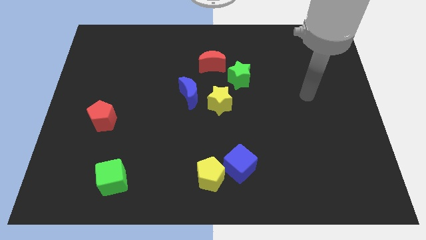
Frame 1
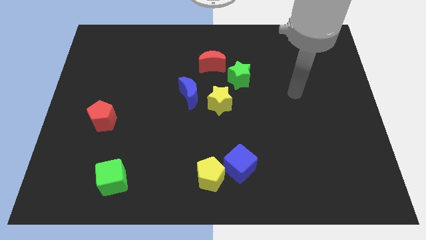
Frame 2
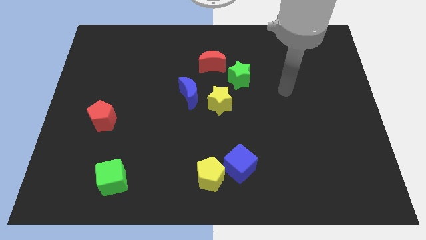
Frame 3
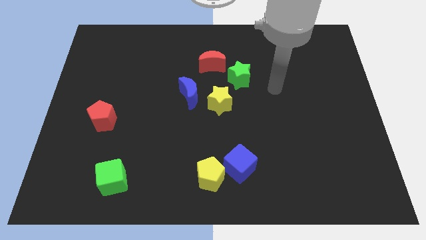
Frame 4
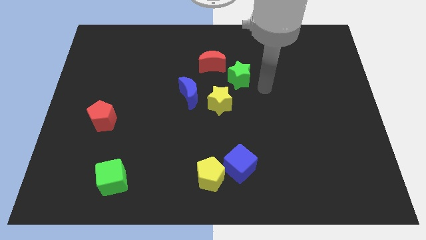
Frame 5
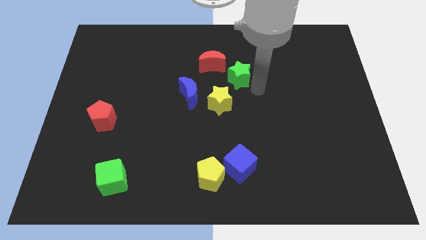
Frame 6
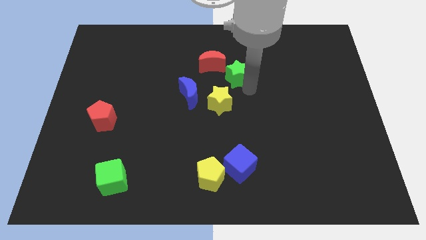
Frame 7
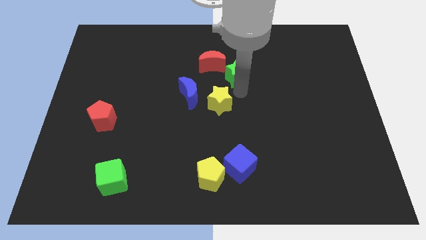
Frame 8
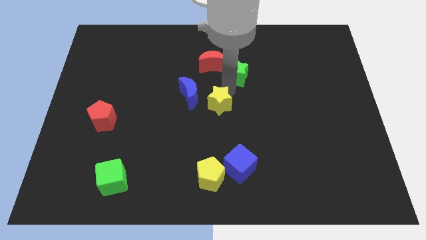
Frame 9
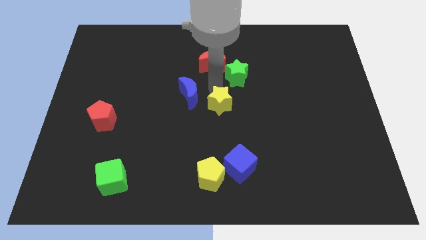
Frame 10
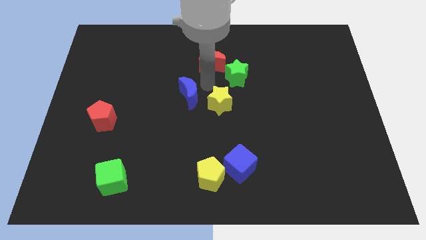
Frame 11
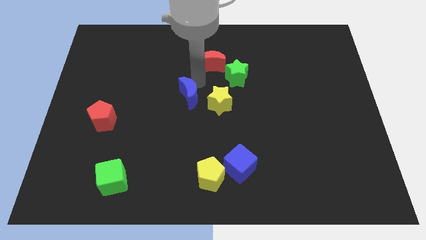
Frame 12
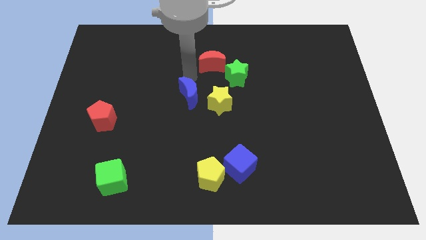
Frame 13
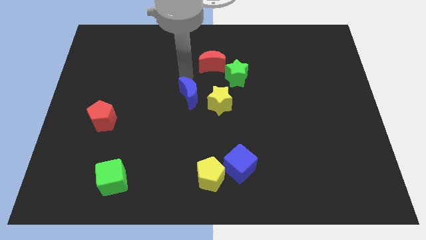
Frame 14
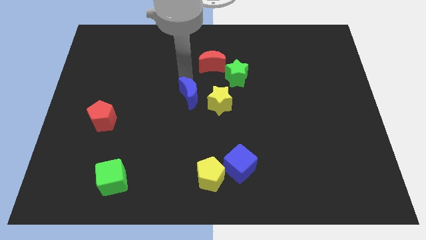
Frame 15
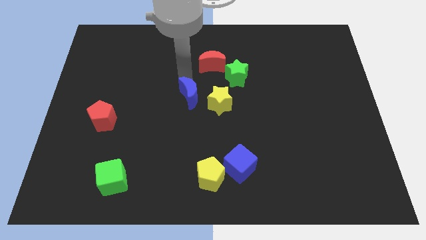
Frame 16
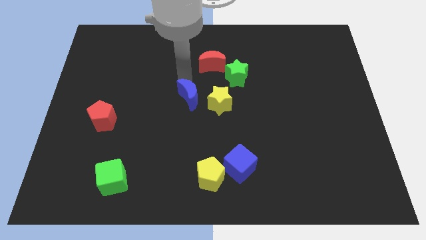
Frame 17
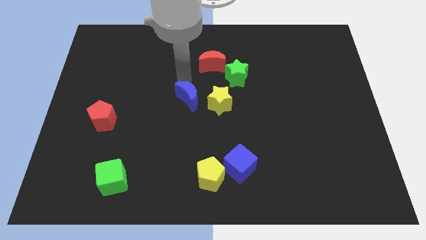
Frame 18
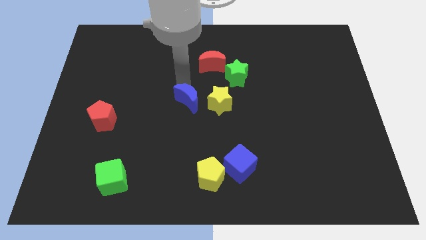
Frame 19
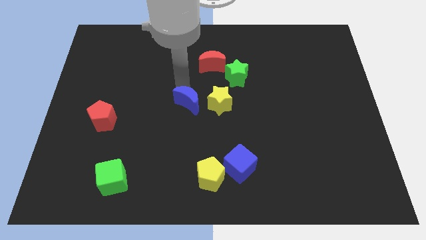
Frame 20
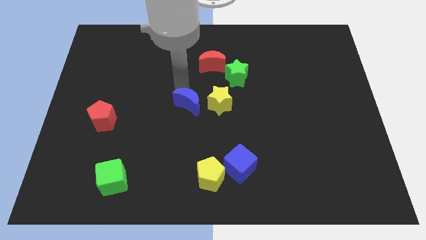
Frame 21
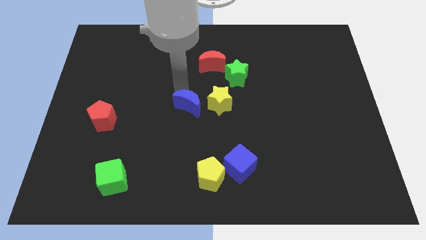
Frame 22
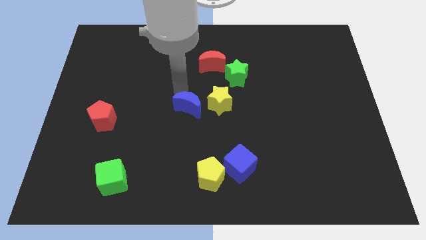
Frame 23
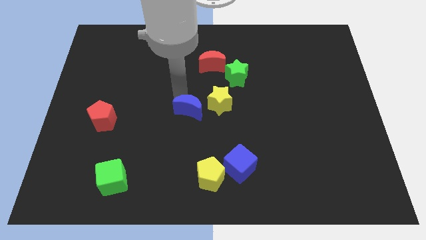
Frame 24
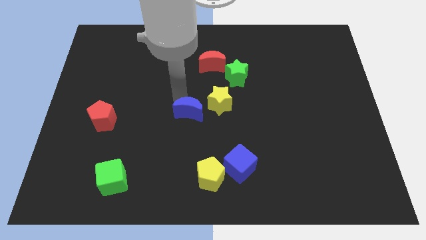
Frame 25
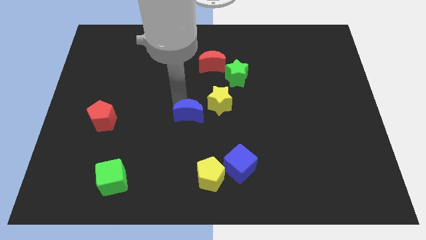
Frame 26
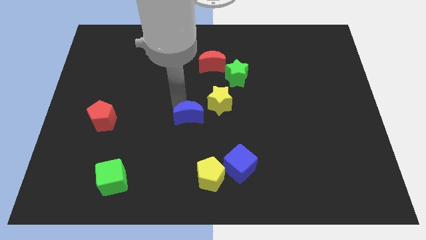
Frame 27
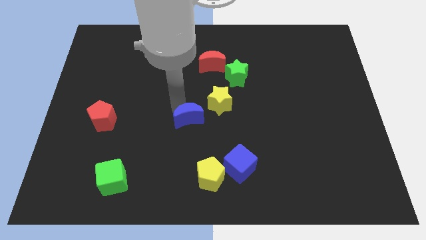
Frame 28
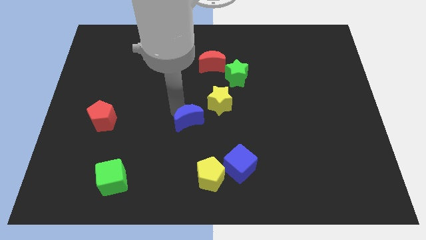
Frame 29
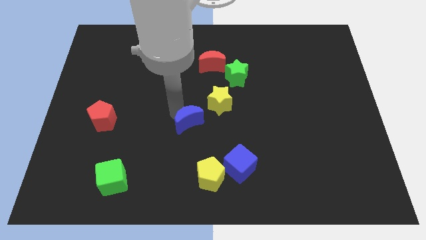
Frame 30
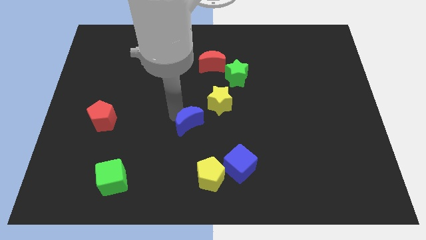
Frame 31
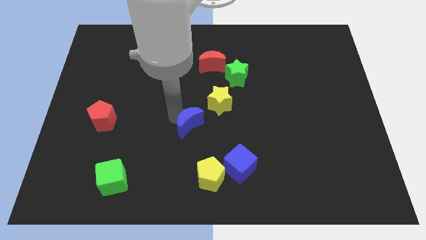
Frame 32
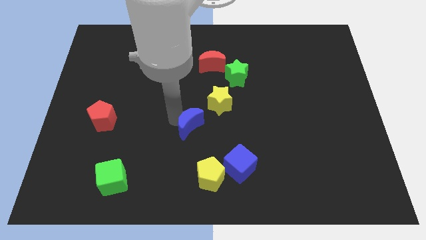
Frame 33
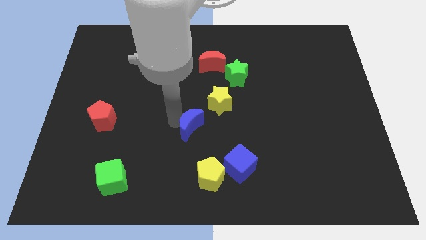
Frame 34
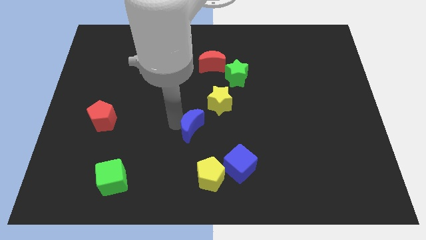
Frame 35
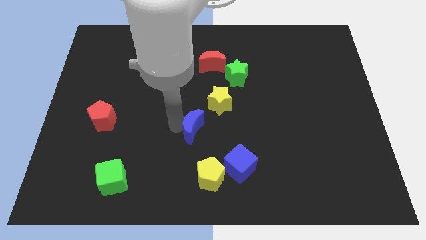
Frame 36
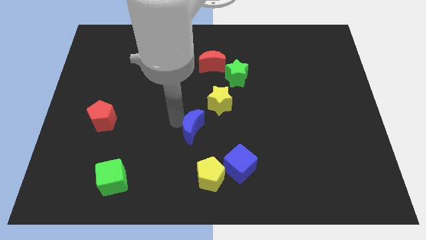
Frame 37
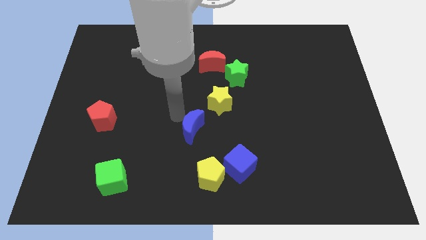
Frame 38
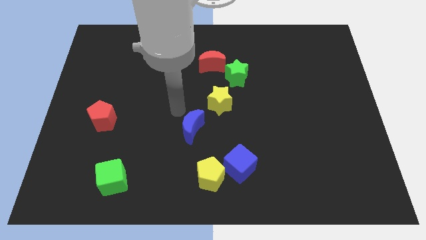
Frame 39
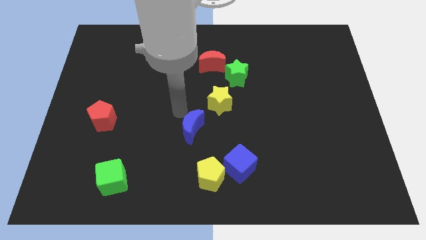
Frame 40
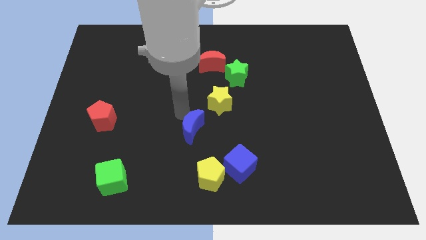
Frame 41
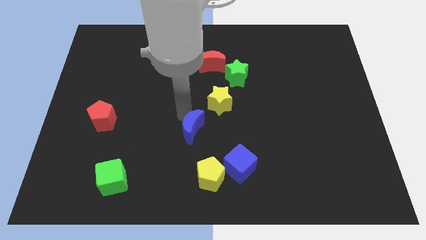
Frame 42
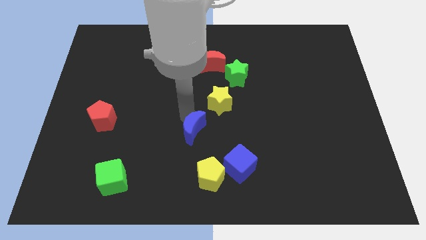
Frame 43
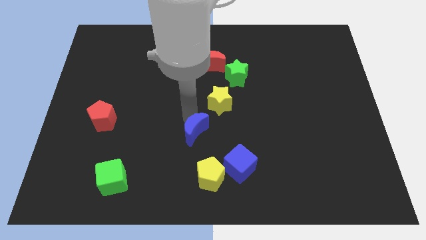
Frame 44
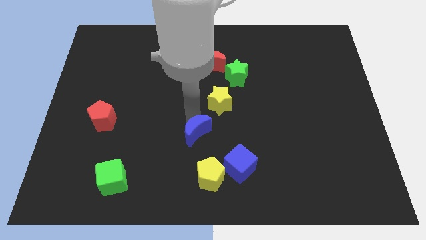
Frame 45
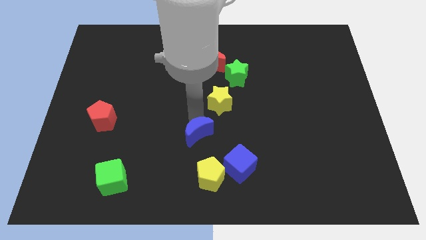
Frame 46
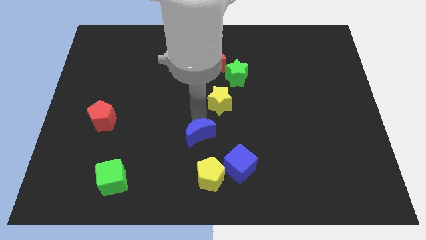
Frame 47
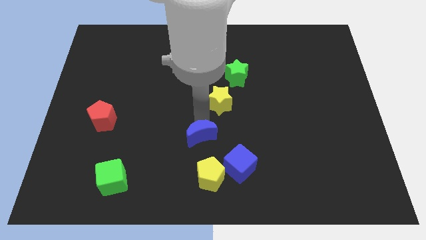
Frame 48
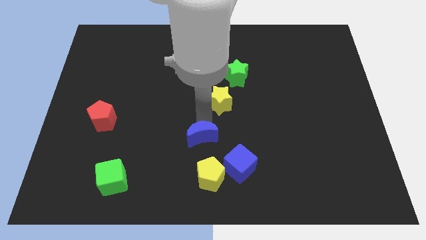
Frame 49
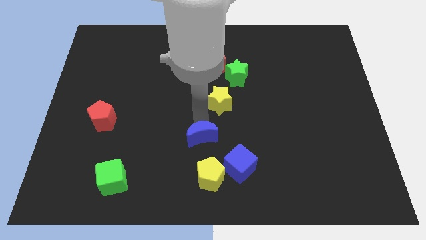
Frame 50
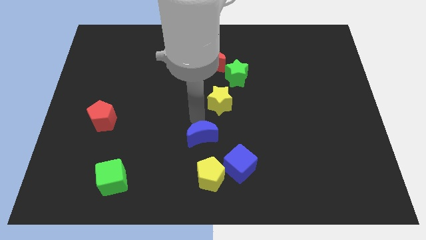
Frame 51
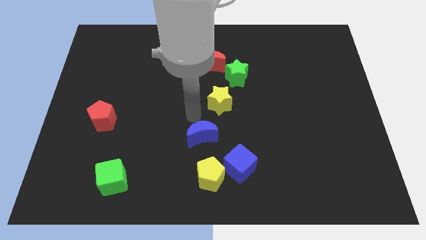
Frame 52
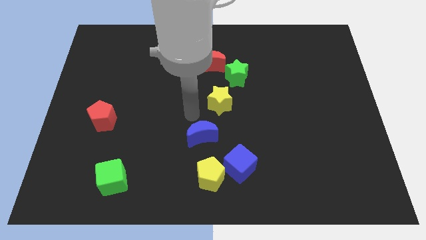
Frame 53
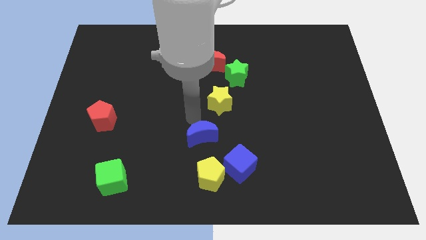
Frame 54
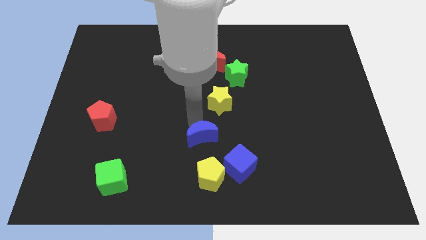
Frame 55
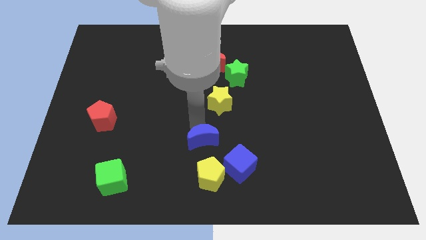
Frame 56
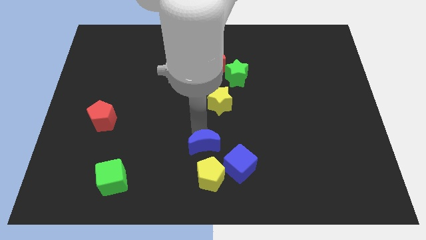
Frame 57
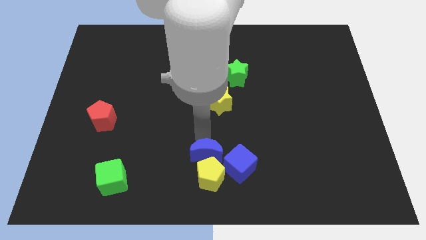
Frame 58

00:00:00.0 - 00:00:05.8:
move the blue moon to the yellow pentagon

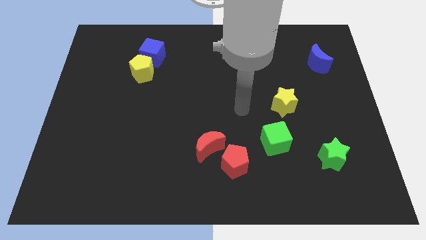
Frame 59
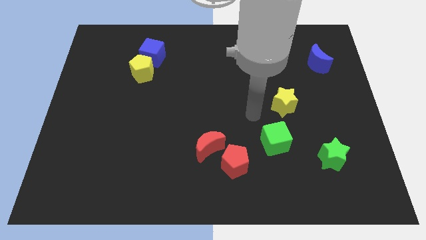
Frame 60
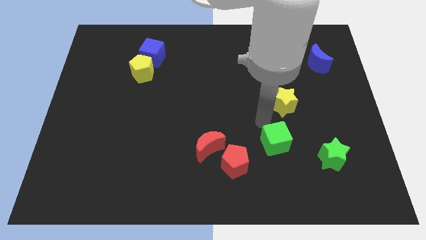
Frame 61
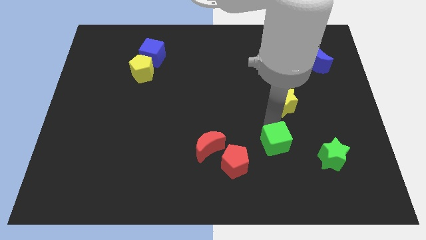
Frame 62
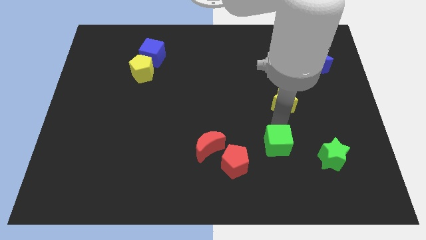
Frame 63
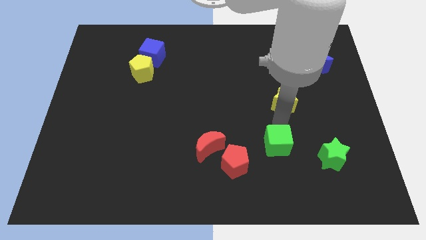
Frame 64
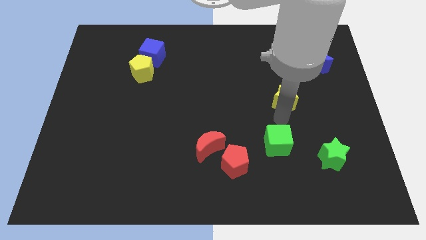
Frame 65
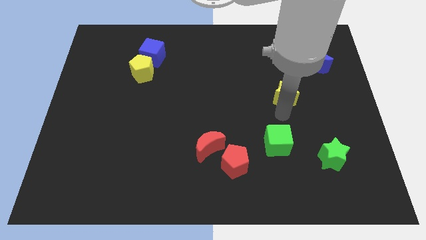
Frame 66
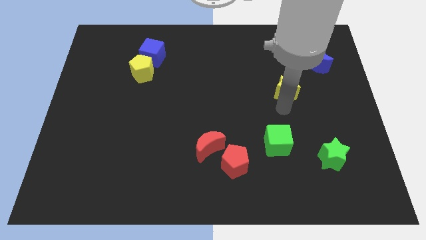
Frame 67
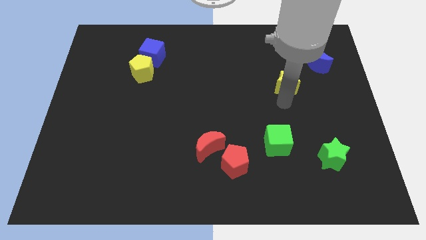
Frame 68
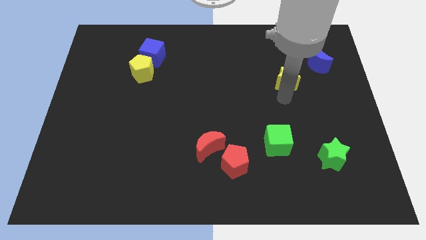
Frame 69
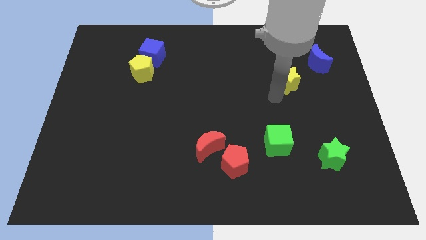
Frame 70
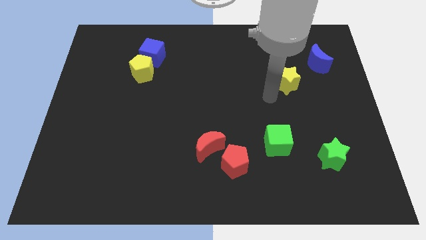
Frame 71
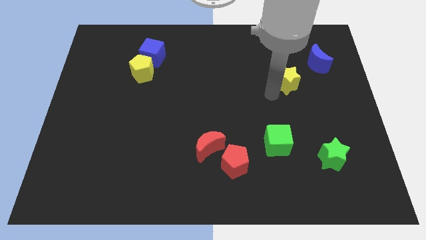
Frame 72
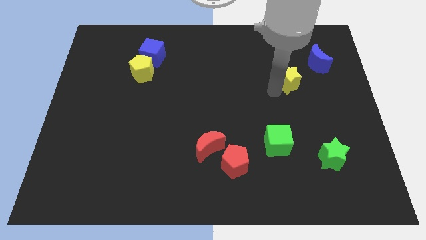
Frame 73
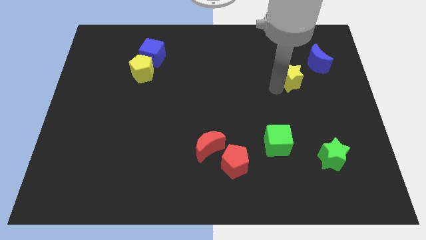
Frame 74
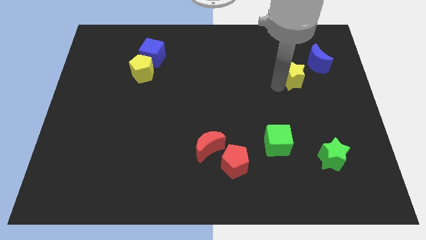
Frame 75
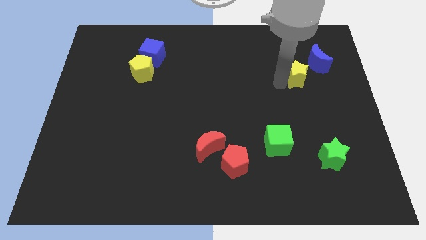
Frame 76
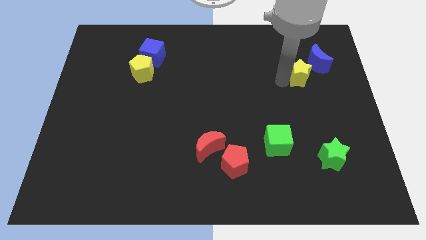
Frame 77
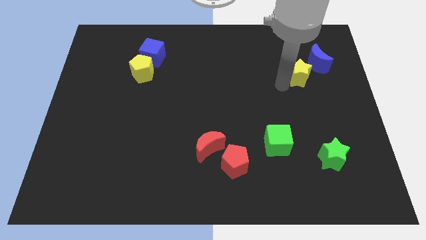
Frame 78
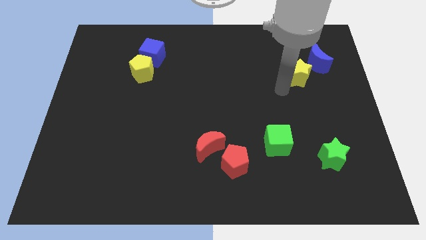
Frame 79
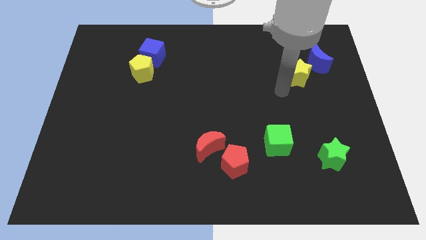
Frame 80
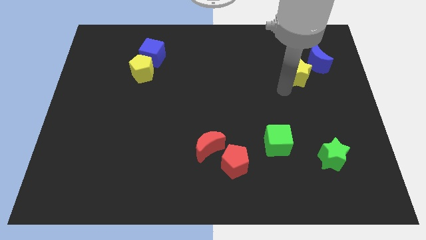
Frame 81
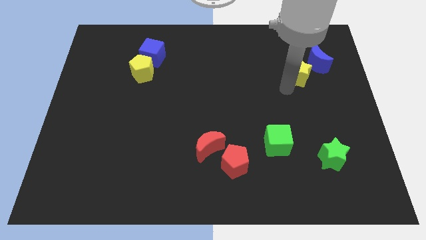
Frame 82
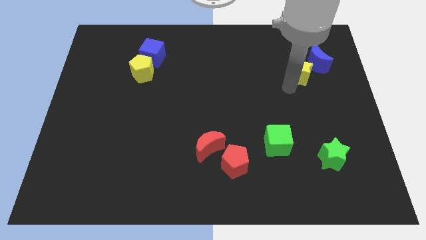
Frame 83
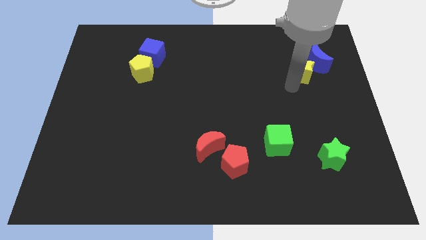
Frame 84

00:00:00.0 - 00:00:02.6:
push the yellow star close to the blue moon
